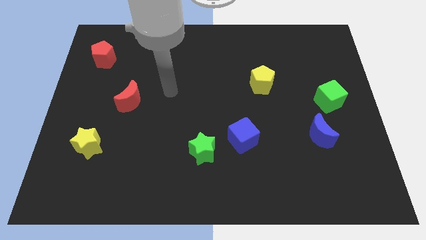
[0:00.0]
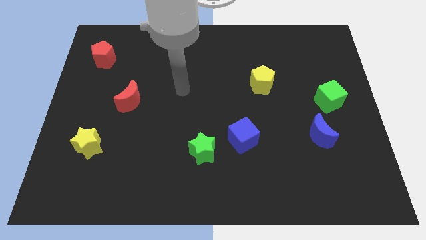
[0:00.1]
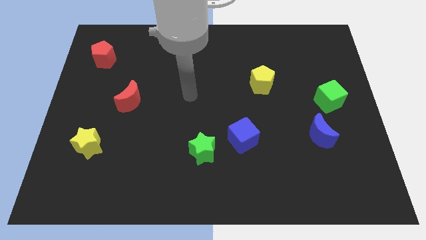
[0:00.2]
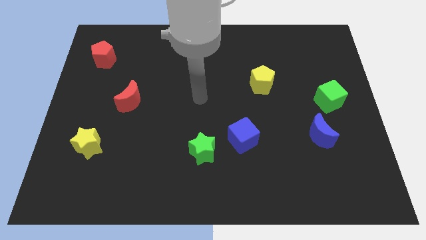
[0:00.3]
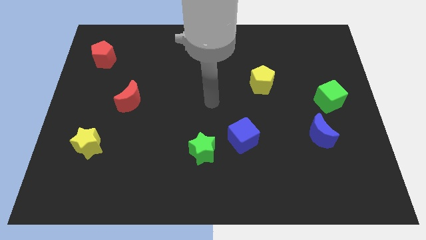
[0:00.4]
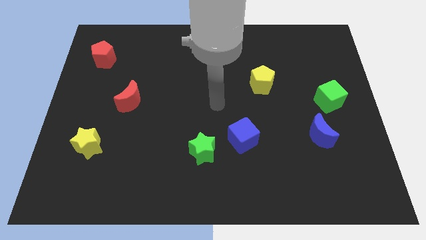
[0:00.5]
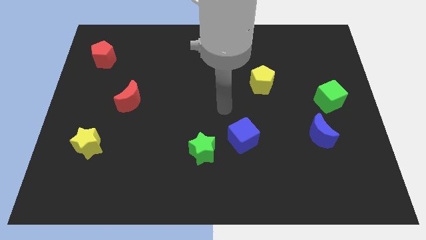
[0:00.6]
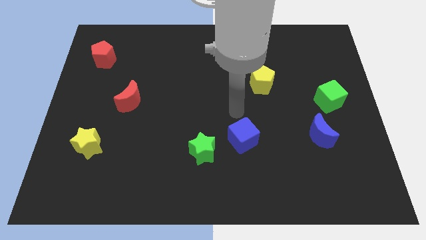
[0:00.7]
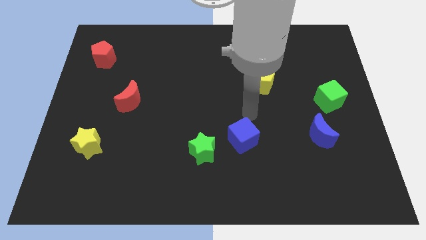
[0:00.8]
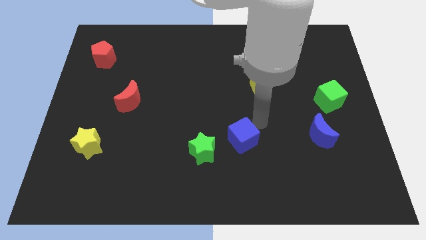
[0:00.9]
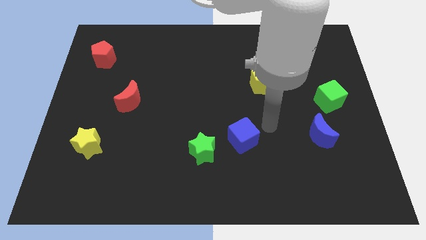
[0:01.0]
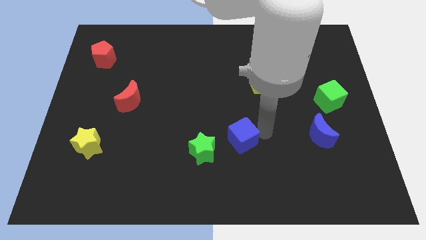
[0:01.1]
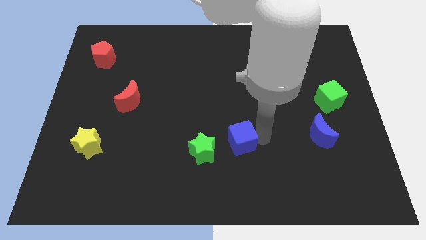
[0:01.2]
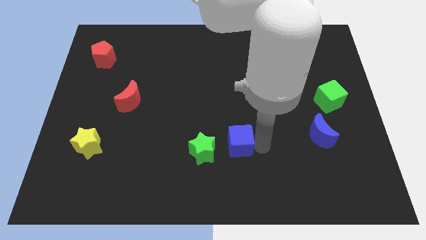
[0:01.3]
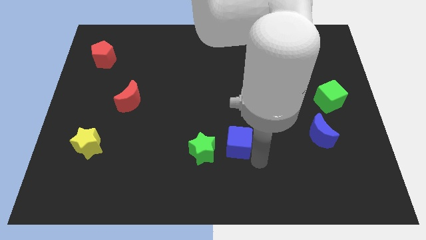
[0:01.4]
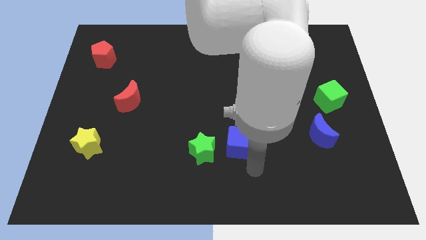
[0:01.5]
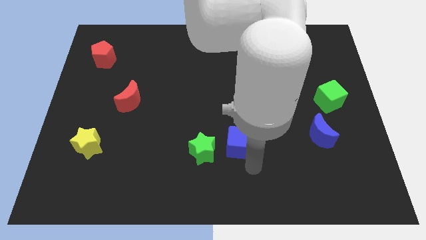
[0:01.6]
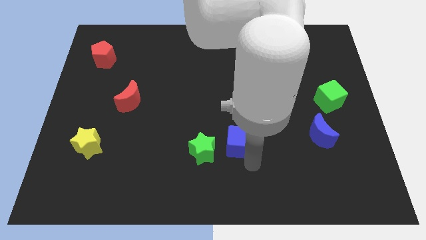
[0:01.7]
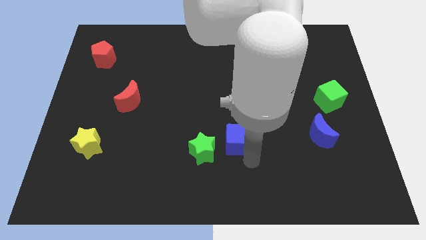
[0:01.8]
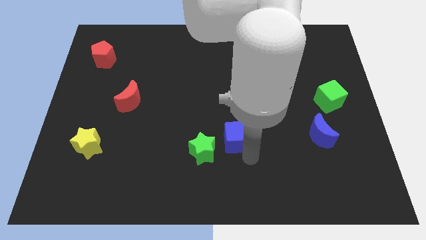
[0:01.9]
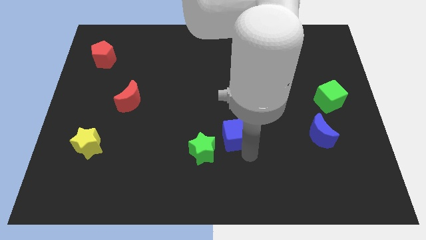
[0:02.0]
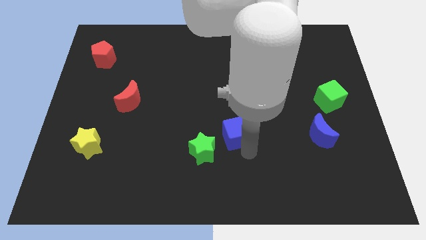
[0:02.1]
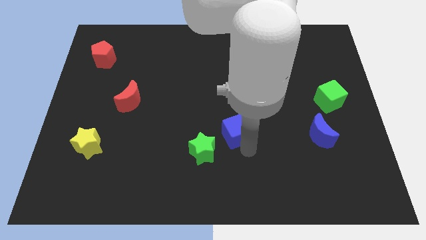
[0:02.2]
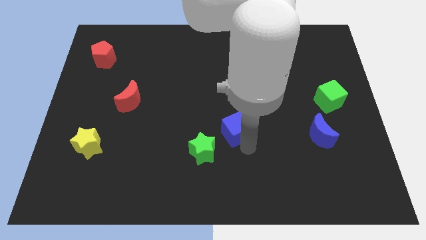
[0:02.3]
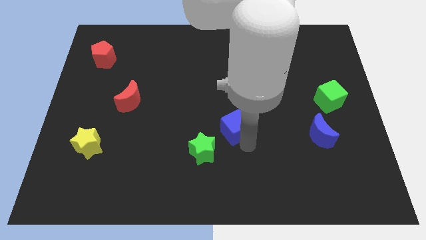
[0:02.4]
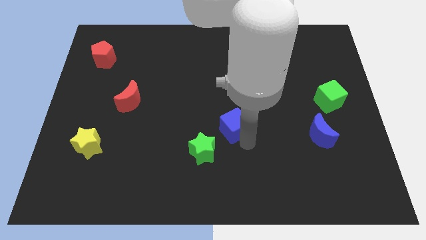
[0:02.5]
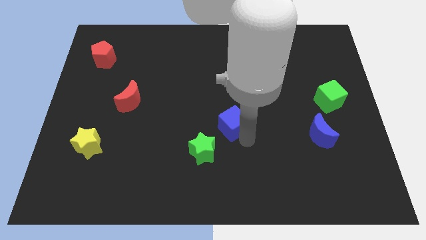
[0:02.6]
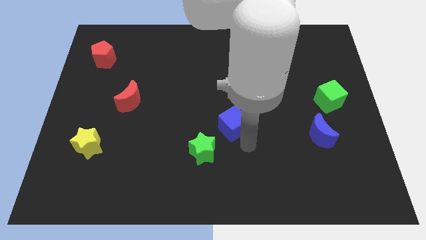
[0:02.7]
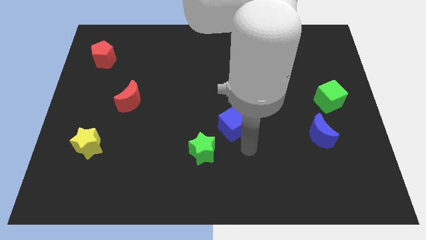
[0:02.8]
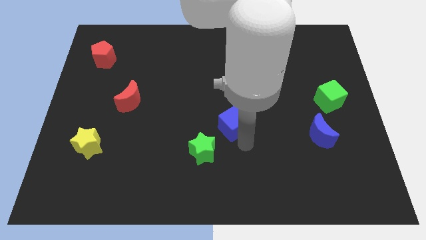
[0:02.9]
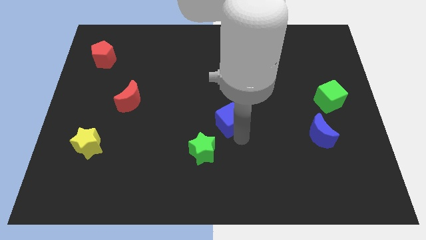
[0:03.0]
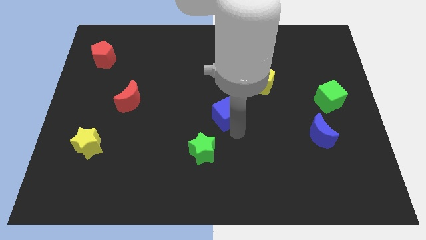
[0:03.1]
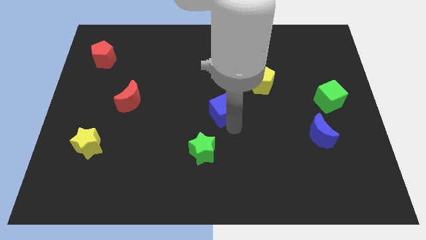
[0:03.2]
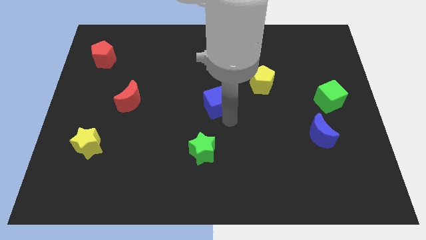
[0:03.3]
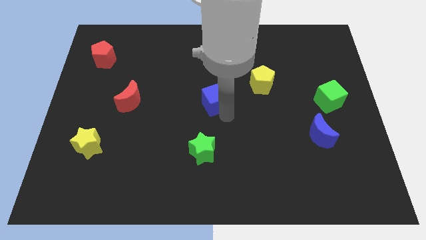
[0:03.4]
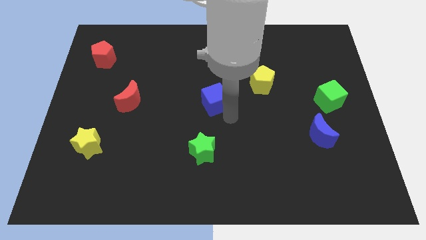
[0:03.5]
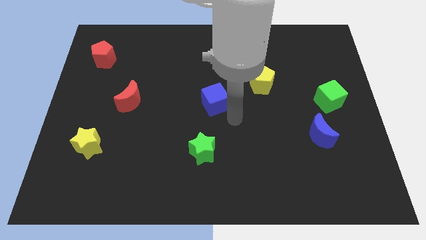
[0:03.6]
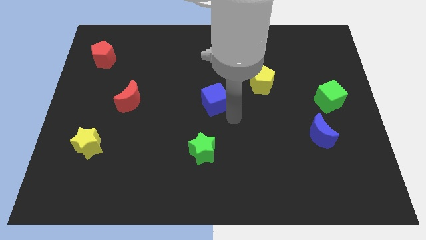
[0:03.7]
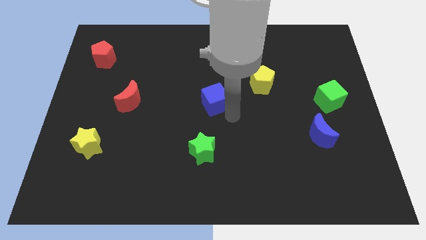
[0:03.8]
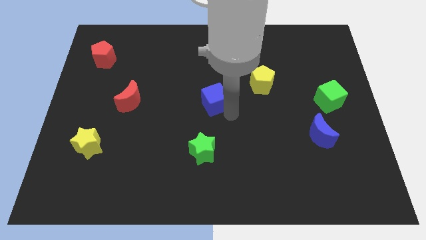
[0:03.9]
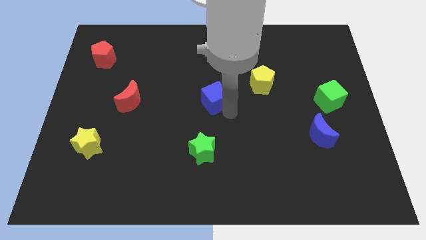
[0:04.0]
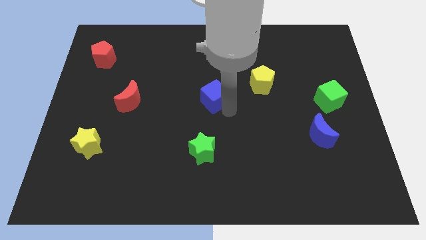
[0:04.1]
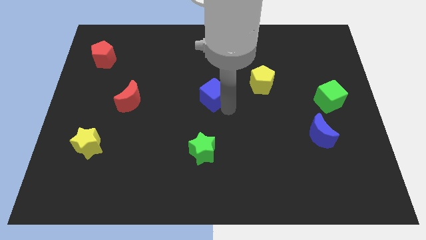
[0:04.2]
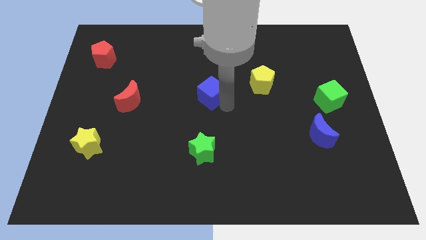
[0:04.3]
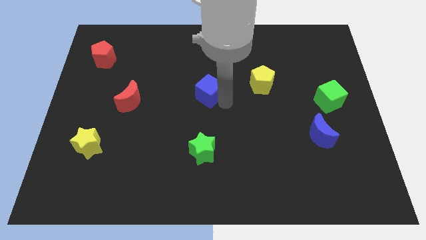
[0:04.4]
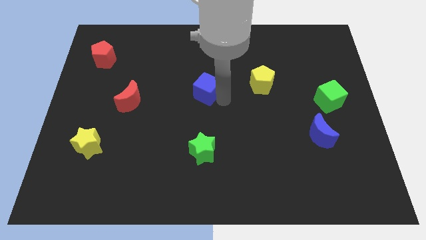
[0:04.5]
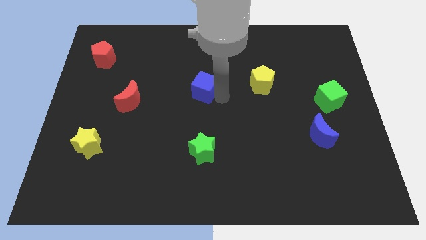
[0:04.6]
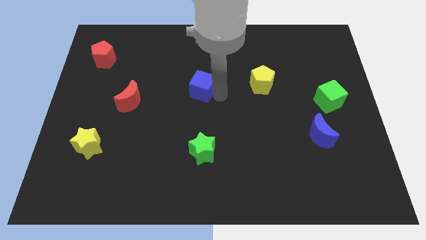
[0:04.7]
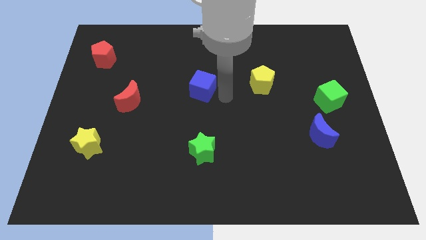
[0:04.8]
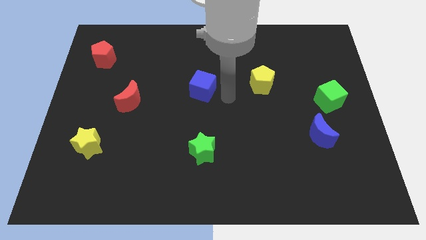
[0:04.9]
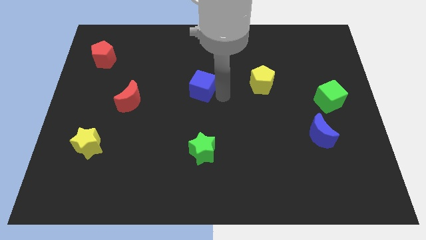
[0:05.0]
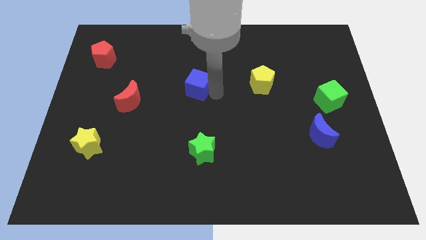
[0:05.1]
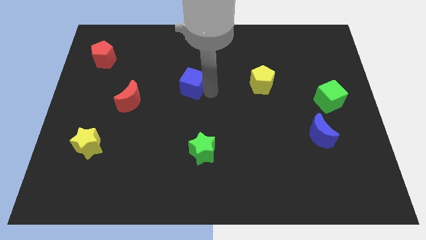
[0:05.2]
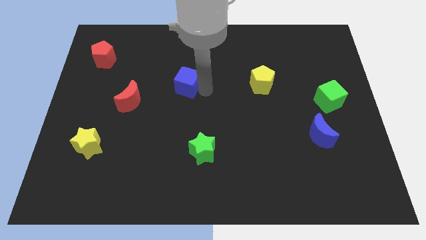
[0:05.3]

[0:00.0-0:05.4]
slide the blue cube upwards and left diagonally

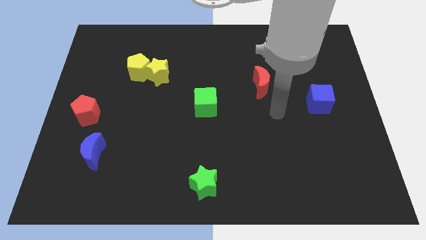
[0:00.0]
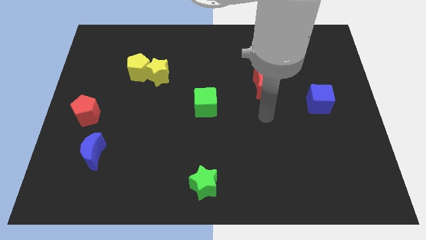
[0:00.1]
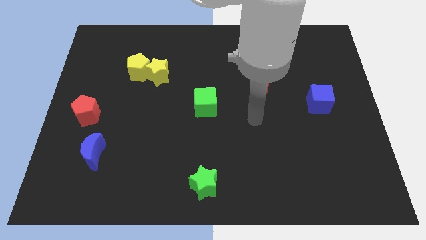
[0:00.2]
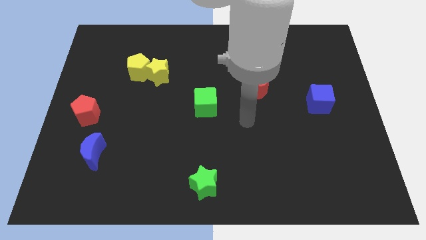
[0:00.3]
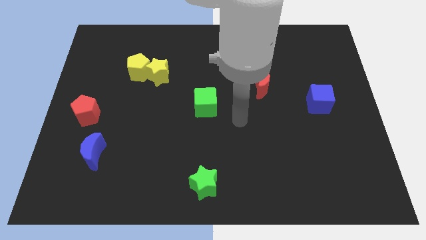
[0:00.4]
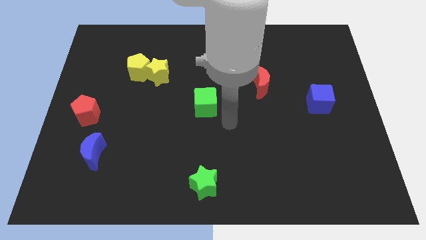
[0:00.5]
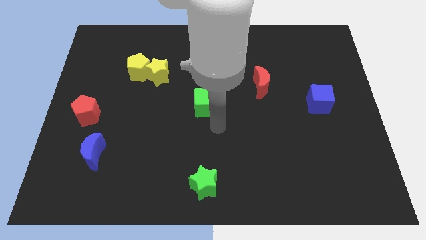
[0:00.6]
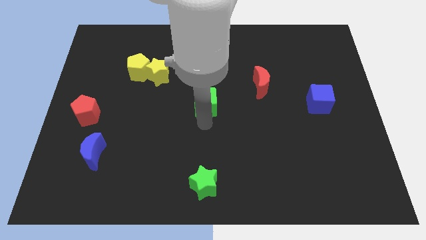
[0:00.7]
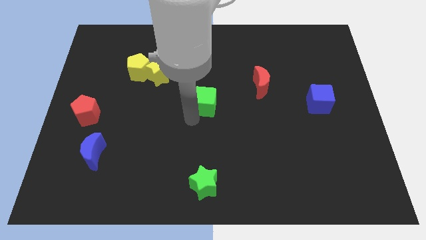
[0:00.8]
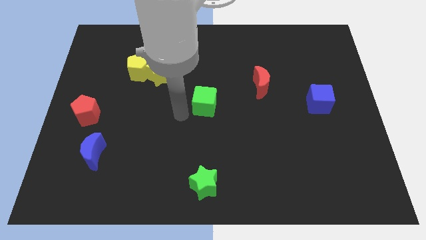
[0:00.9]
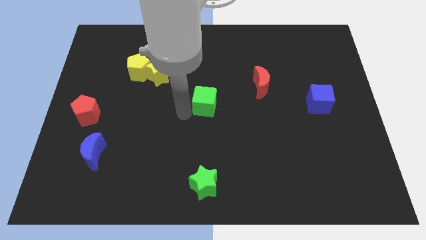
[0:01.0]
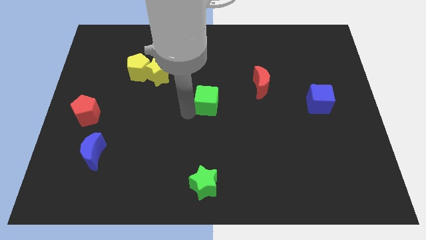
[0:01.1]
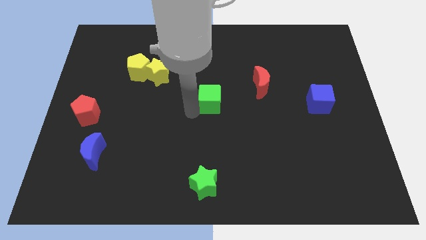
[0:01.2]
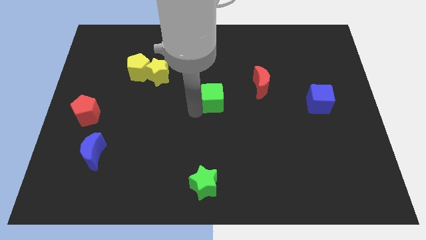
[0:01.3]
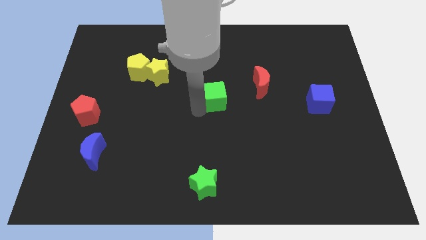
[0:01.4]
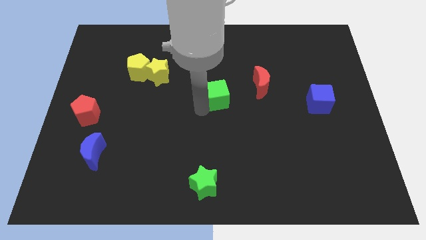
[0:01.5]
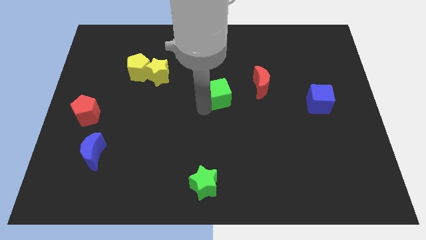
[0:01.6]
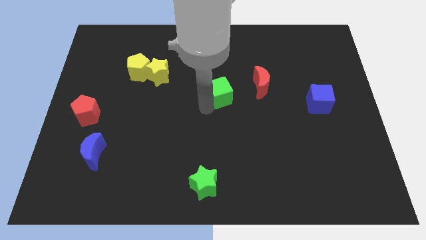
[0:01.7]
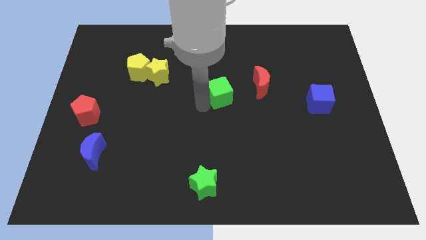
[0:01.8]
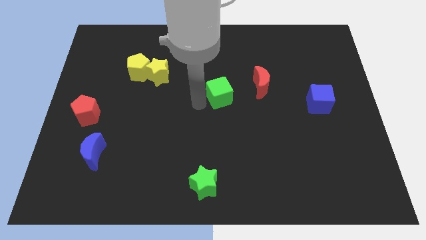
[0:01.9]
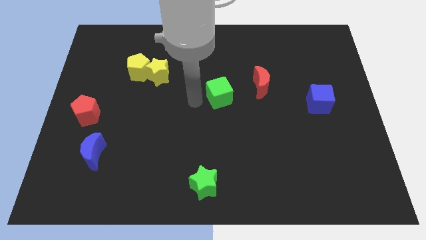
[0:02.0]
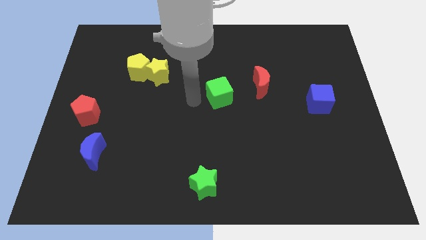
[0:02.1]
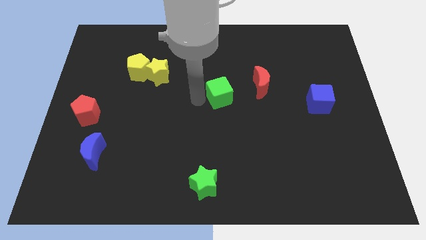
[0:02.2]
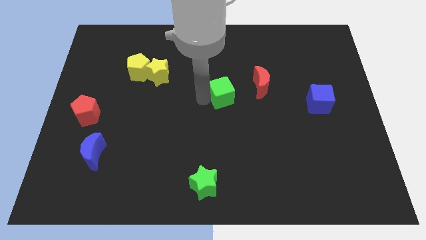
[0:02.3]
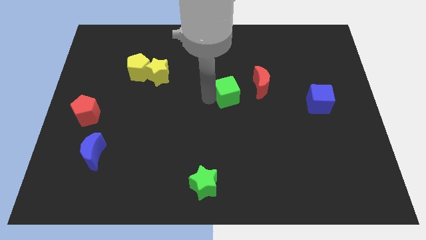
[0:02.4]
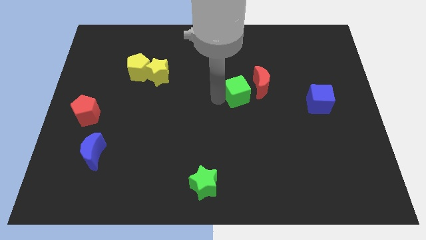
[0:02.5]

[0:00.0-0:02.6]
slightly move the green cube diagonally up and to the right
